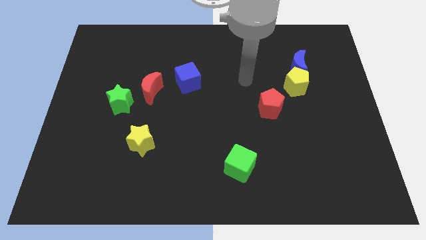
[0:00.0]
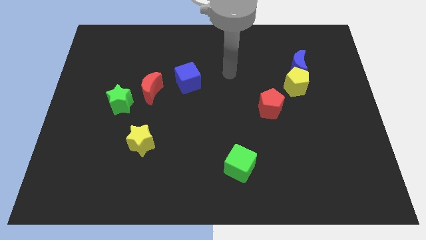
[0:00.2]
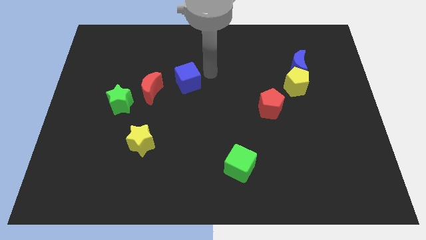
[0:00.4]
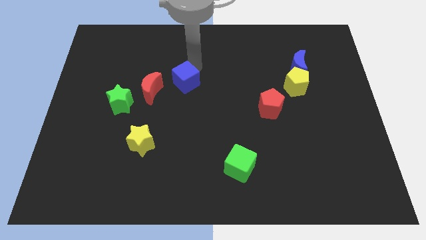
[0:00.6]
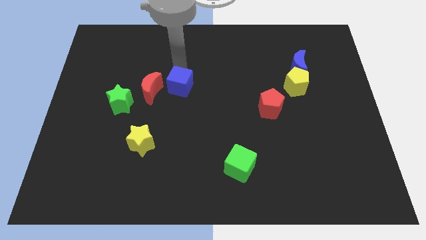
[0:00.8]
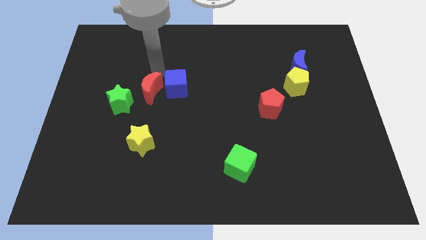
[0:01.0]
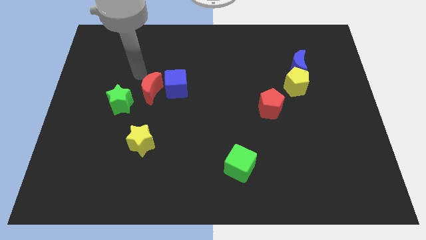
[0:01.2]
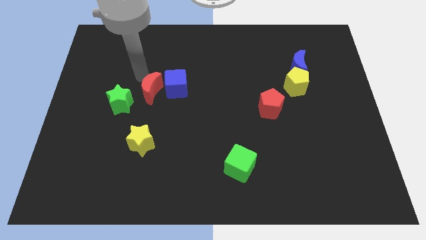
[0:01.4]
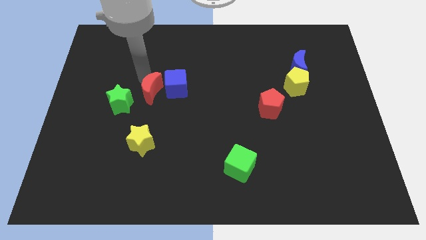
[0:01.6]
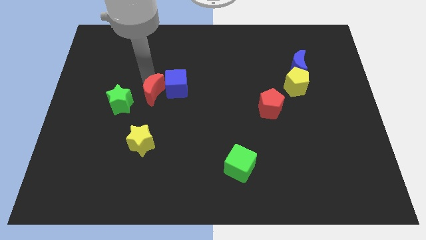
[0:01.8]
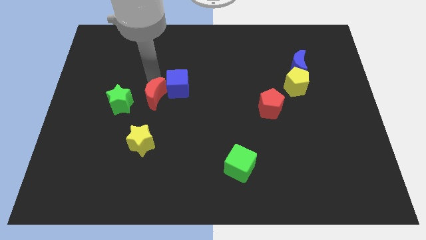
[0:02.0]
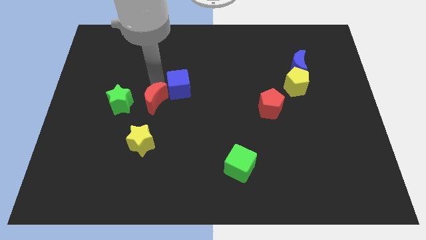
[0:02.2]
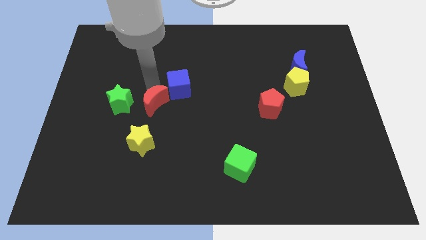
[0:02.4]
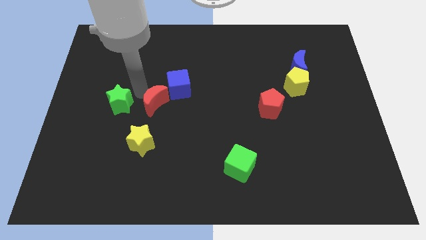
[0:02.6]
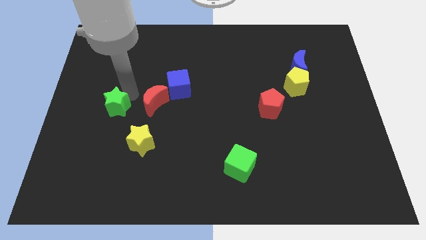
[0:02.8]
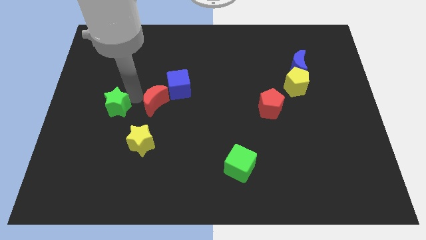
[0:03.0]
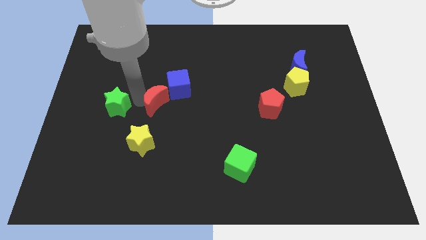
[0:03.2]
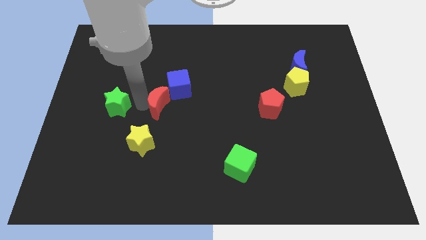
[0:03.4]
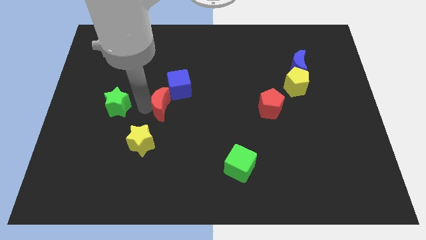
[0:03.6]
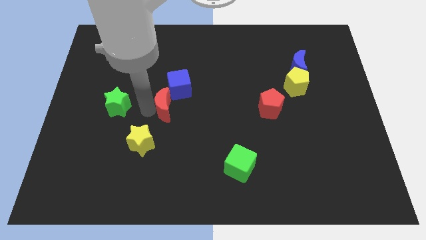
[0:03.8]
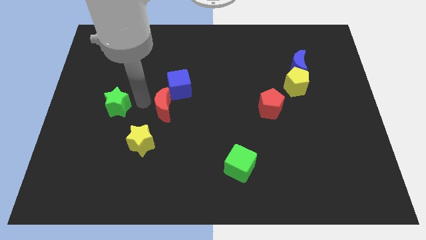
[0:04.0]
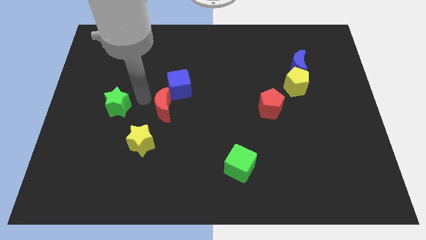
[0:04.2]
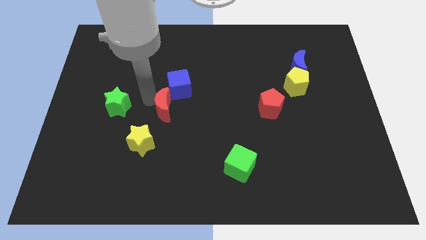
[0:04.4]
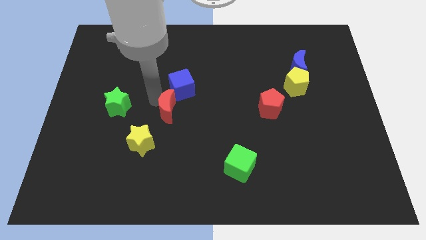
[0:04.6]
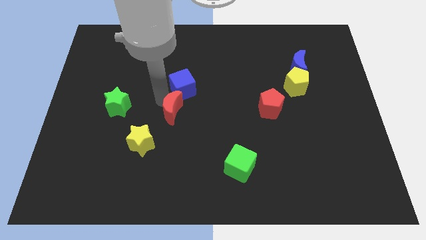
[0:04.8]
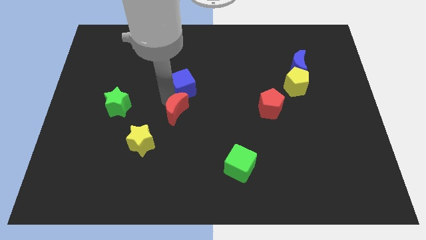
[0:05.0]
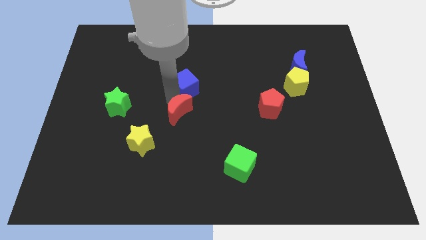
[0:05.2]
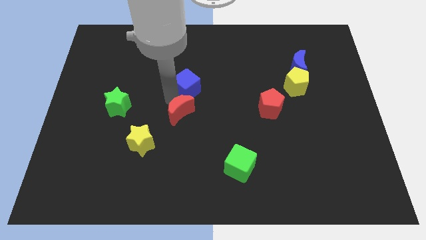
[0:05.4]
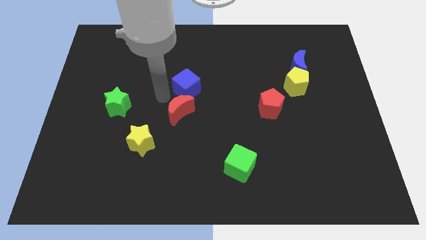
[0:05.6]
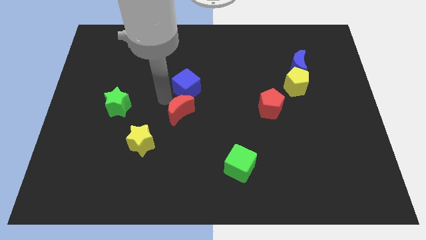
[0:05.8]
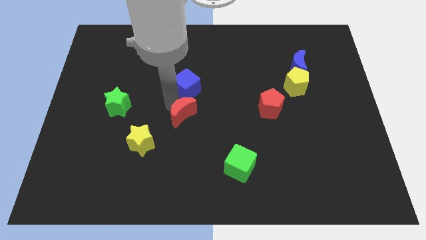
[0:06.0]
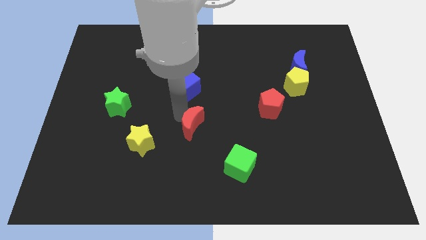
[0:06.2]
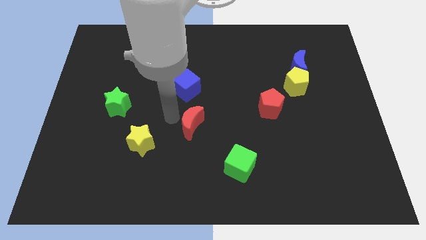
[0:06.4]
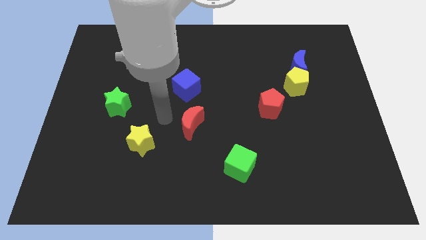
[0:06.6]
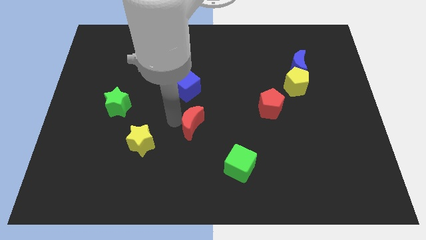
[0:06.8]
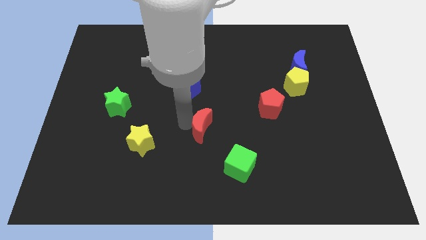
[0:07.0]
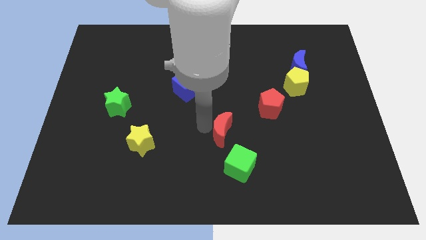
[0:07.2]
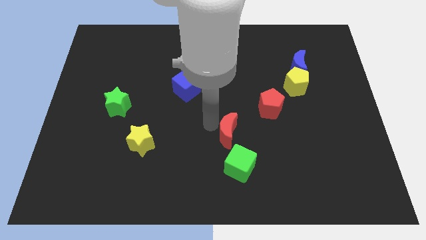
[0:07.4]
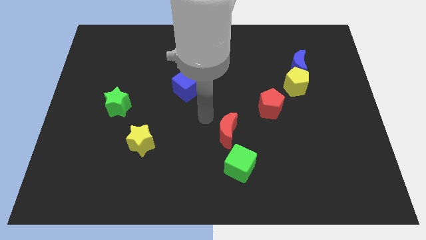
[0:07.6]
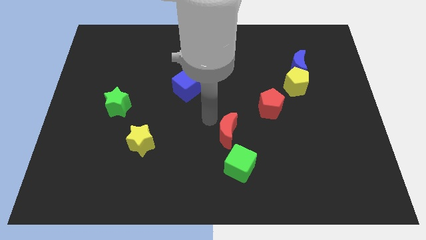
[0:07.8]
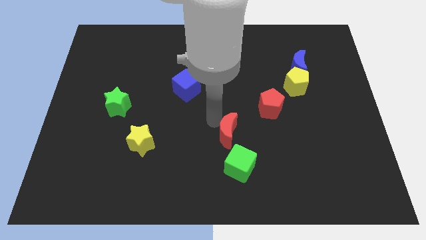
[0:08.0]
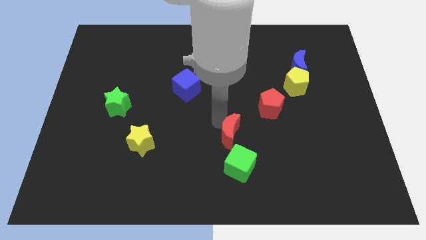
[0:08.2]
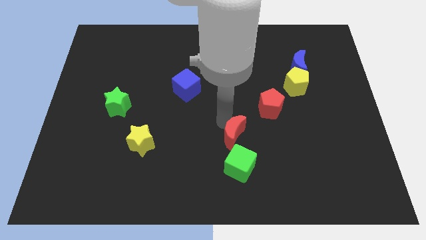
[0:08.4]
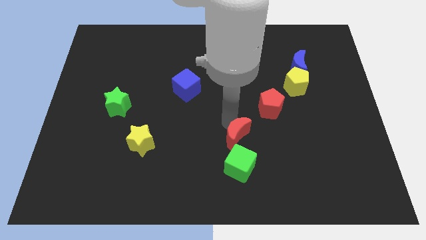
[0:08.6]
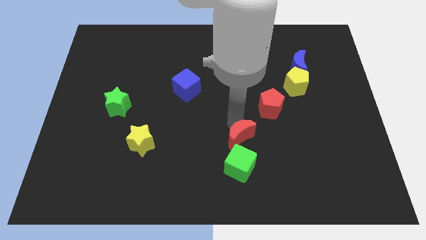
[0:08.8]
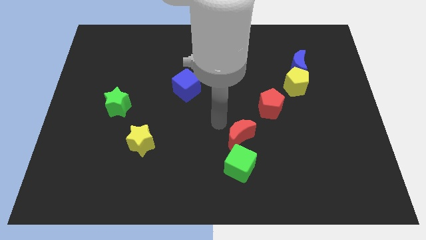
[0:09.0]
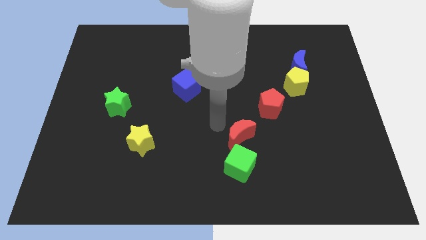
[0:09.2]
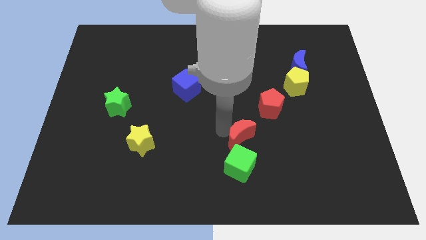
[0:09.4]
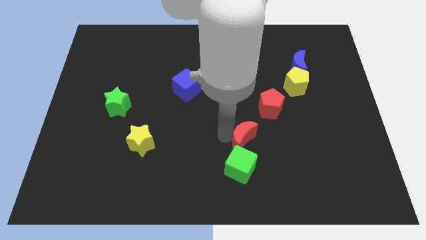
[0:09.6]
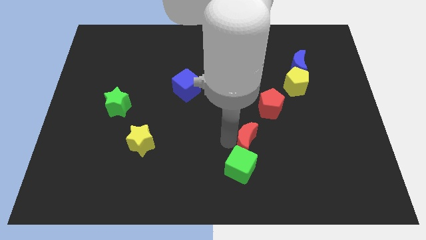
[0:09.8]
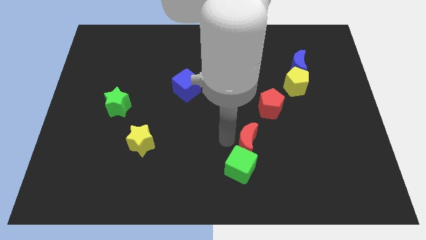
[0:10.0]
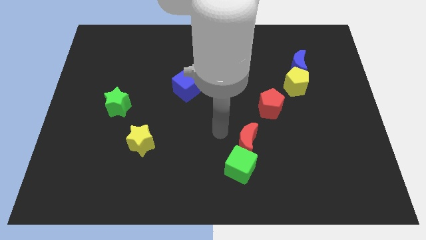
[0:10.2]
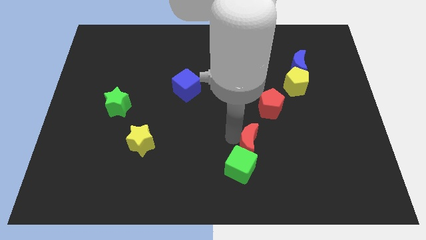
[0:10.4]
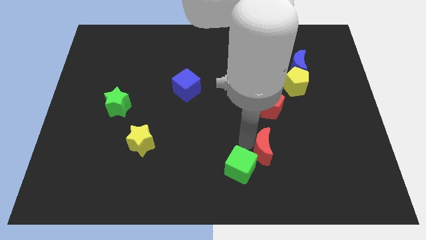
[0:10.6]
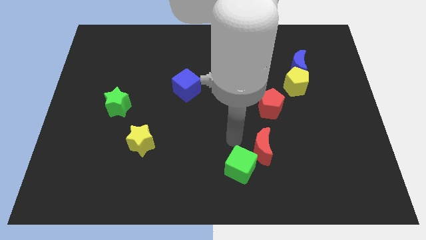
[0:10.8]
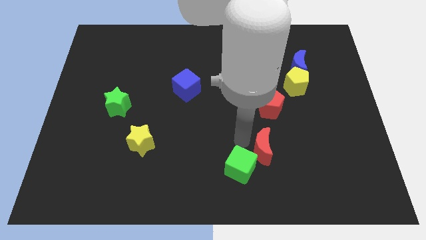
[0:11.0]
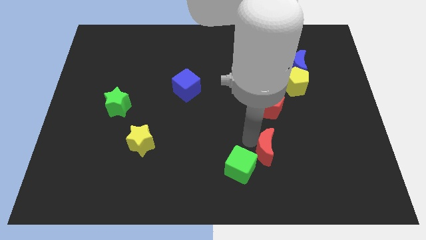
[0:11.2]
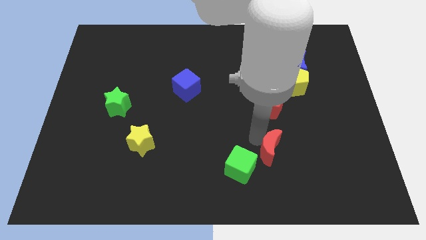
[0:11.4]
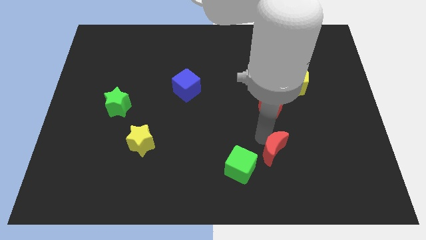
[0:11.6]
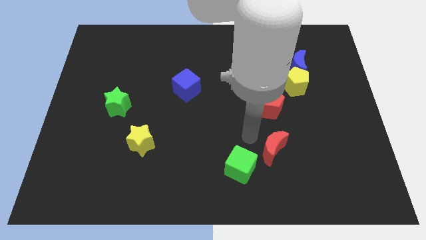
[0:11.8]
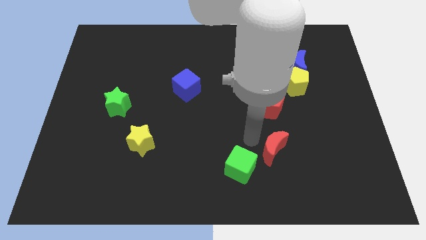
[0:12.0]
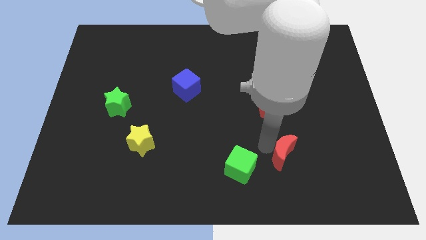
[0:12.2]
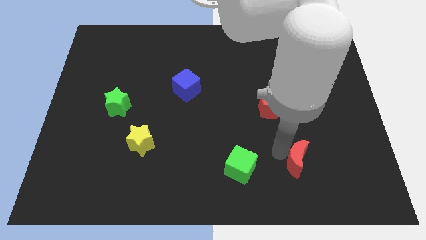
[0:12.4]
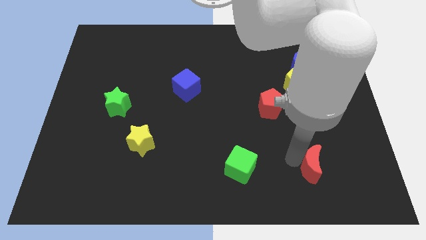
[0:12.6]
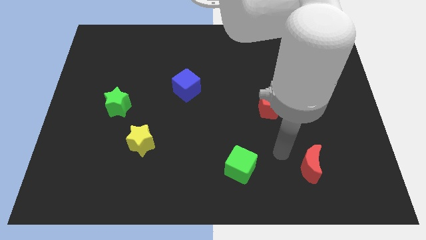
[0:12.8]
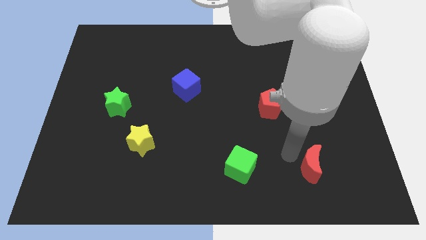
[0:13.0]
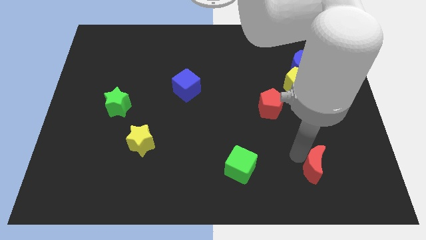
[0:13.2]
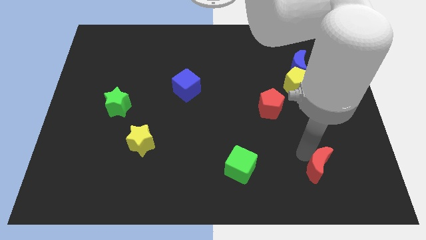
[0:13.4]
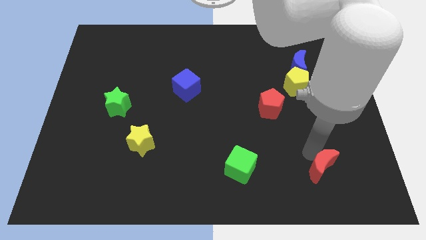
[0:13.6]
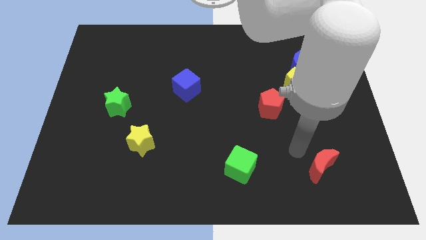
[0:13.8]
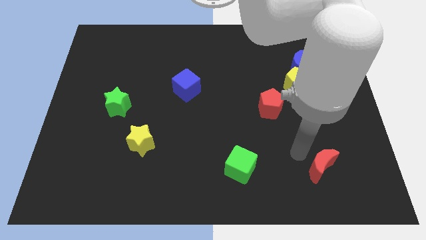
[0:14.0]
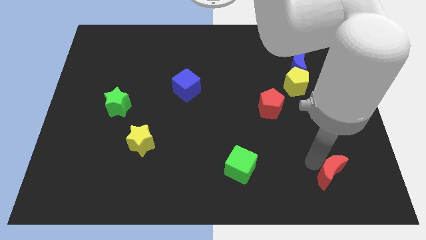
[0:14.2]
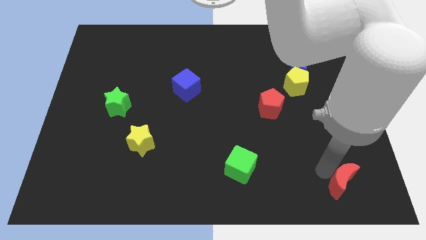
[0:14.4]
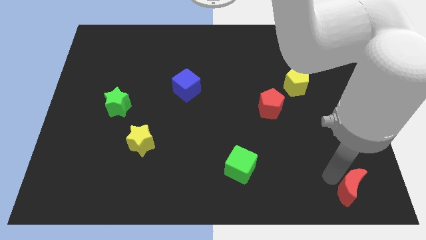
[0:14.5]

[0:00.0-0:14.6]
move the red moon to the lower right corner
